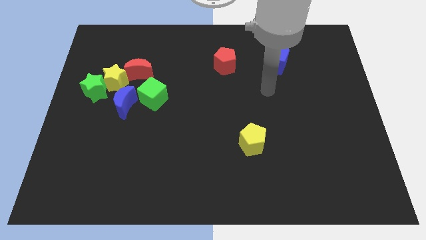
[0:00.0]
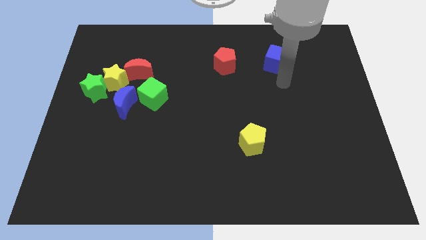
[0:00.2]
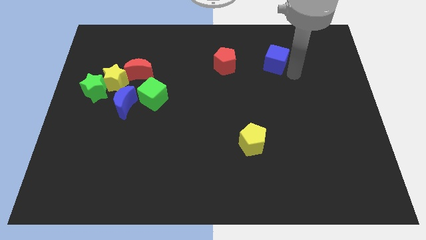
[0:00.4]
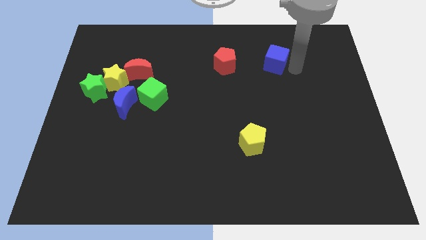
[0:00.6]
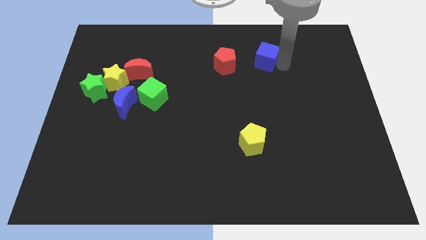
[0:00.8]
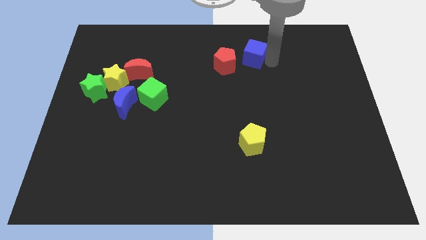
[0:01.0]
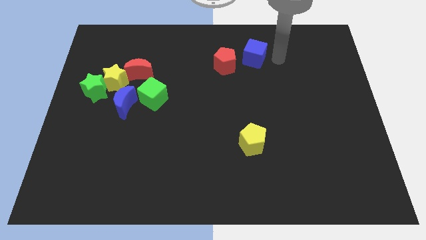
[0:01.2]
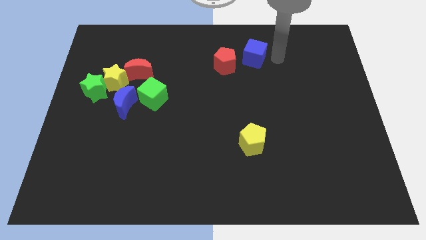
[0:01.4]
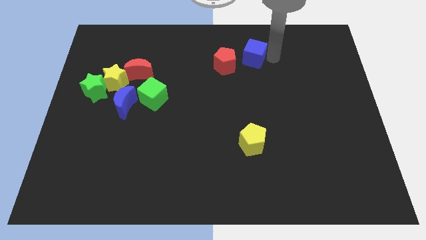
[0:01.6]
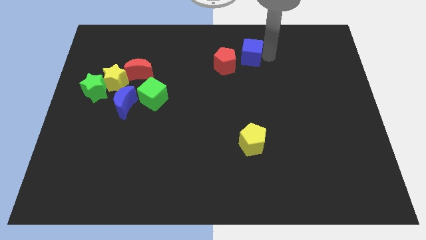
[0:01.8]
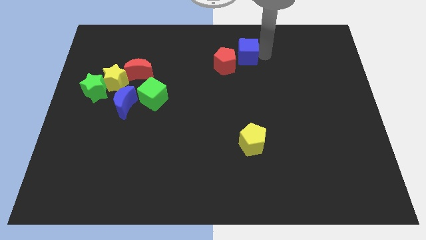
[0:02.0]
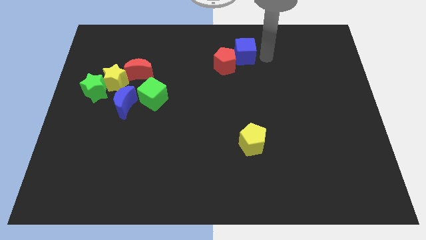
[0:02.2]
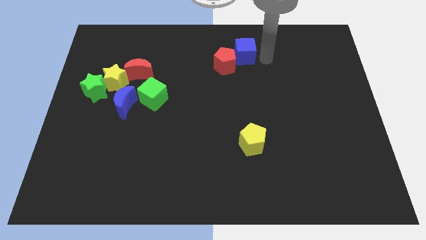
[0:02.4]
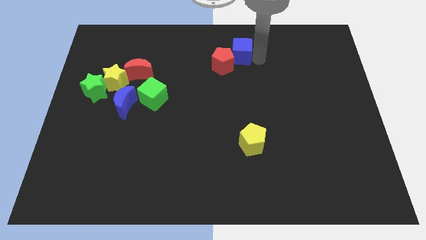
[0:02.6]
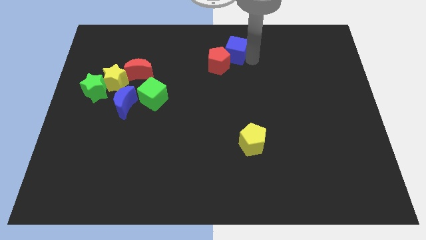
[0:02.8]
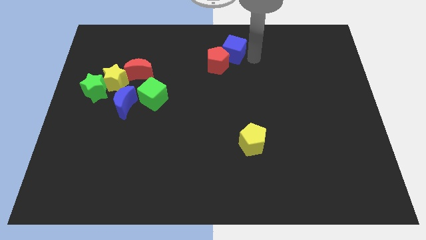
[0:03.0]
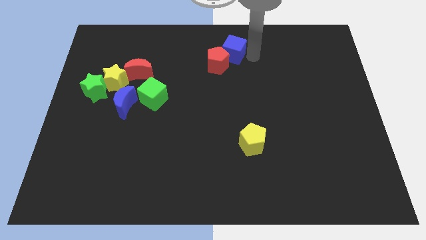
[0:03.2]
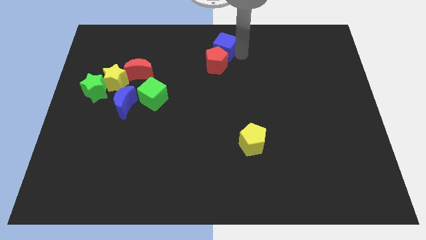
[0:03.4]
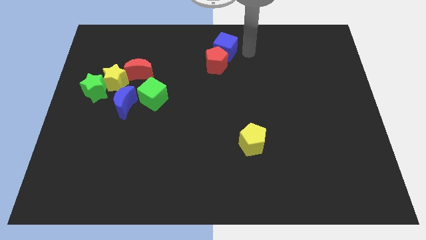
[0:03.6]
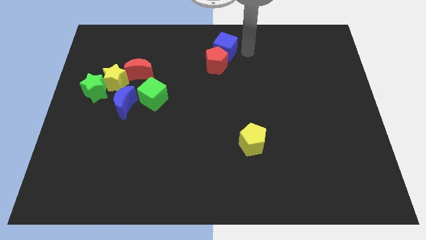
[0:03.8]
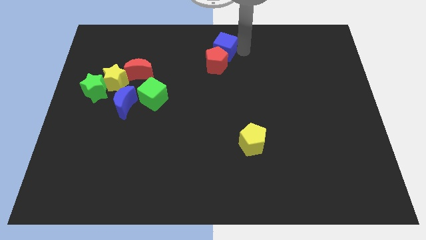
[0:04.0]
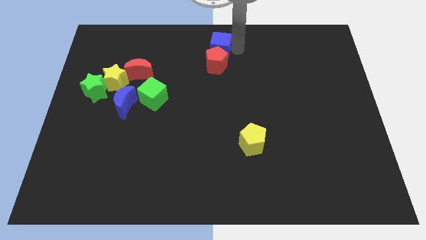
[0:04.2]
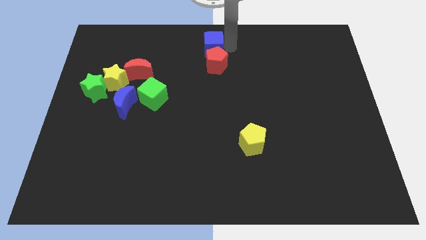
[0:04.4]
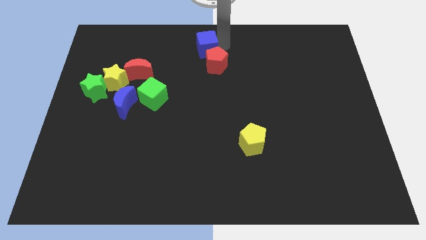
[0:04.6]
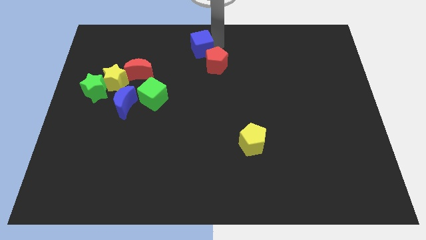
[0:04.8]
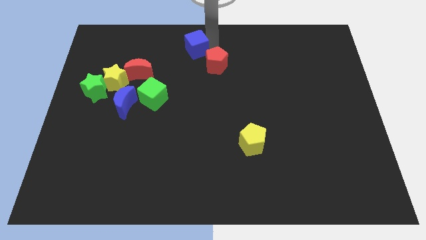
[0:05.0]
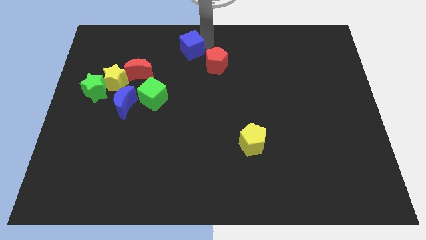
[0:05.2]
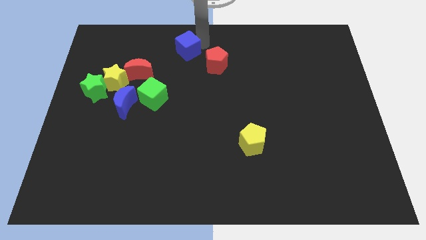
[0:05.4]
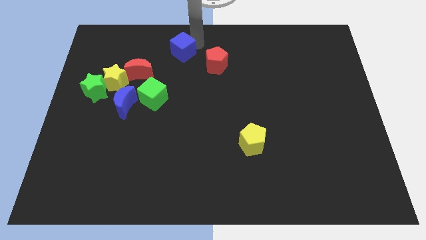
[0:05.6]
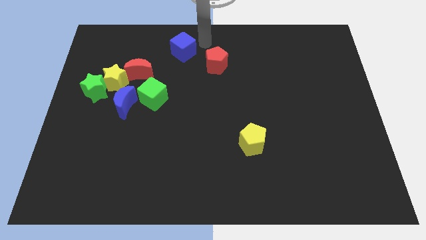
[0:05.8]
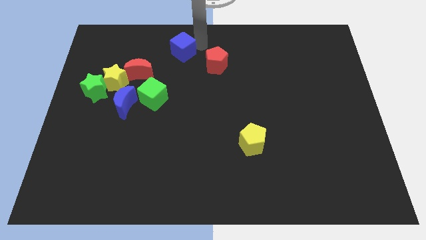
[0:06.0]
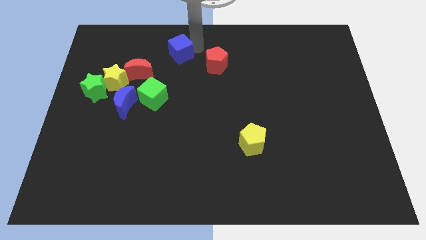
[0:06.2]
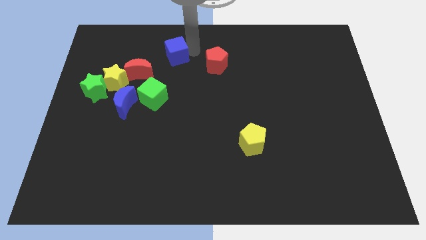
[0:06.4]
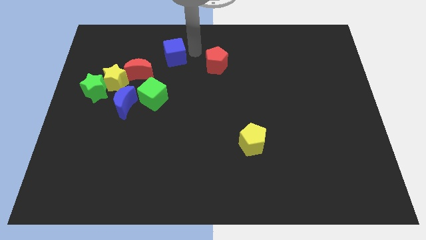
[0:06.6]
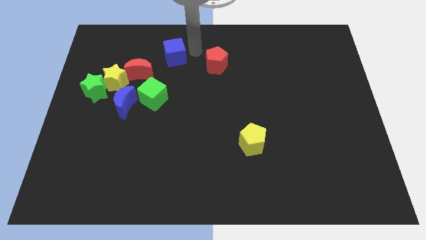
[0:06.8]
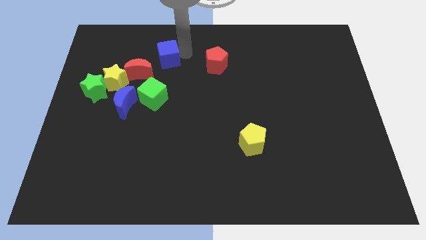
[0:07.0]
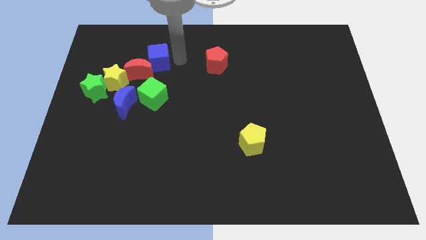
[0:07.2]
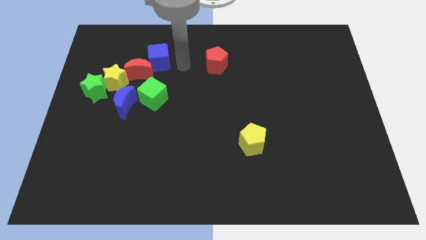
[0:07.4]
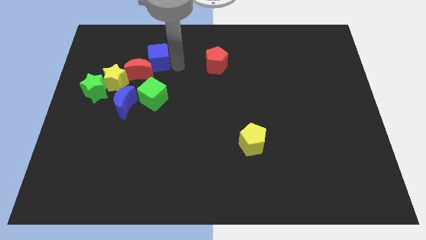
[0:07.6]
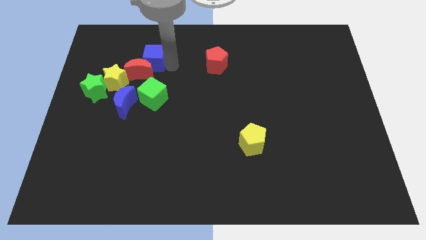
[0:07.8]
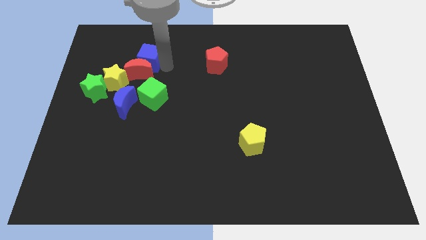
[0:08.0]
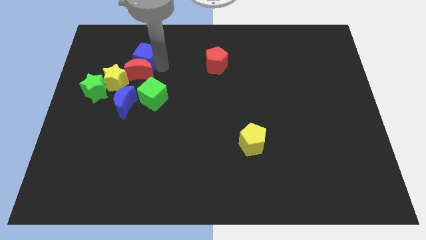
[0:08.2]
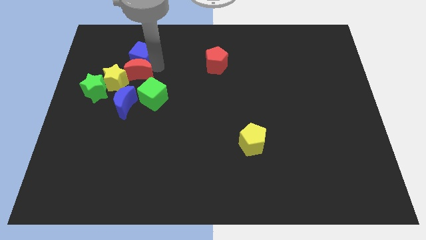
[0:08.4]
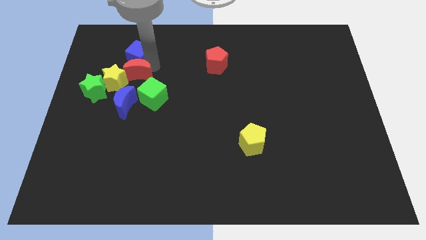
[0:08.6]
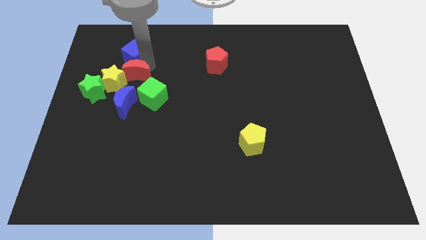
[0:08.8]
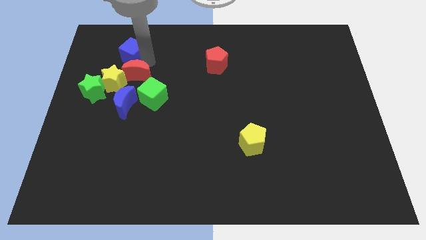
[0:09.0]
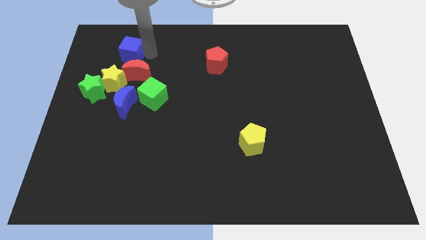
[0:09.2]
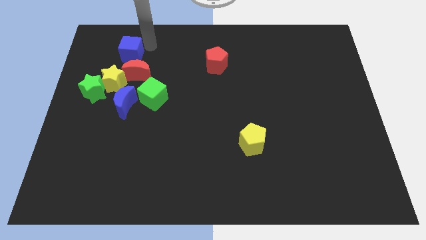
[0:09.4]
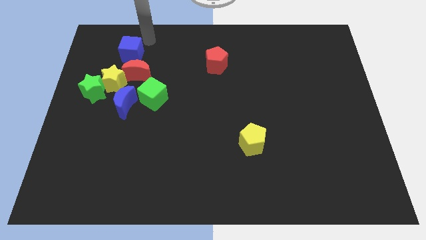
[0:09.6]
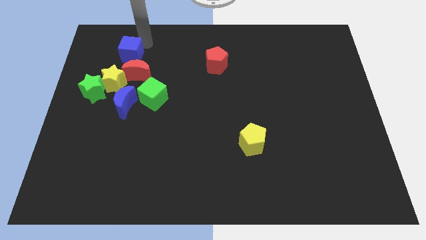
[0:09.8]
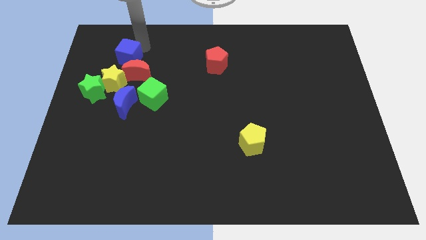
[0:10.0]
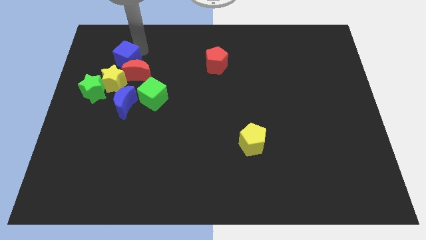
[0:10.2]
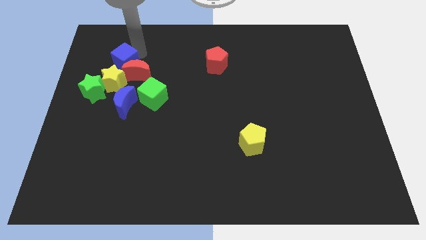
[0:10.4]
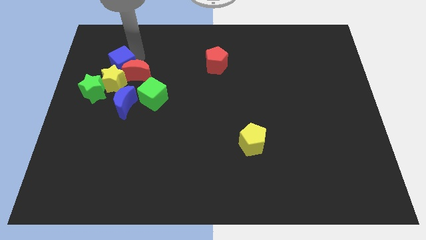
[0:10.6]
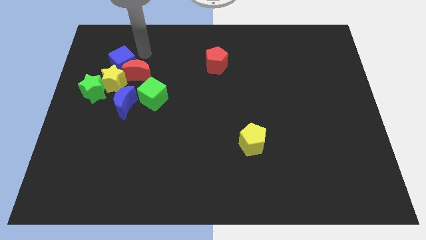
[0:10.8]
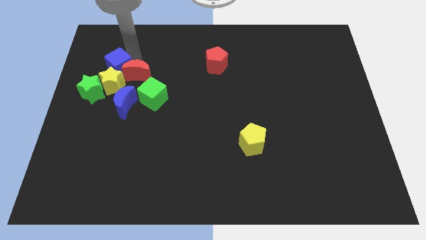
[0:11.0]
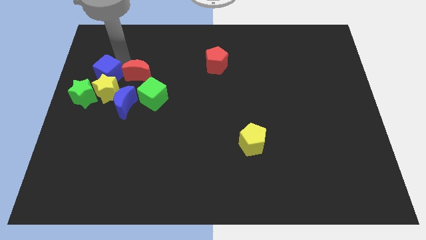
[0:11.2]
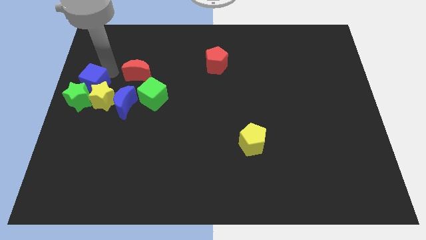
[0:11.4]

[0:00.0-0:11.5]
put the blue cube towards the green star

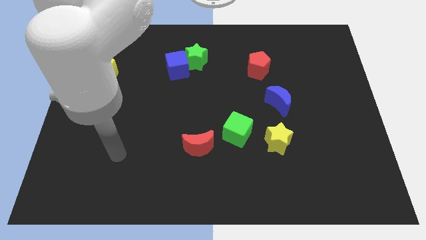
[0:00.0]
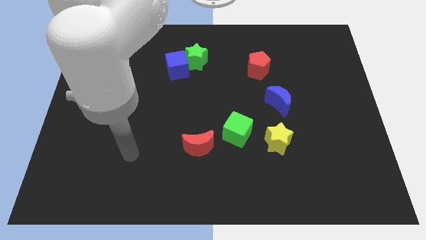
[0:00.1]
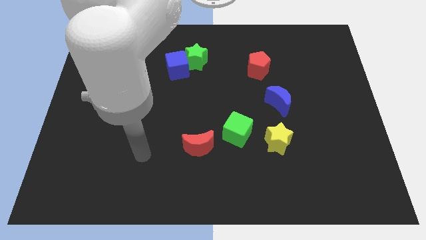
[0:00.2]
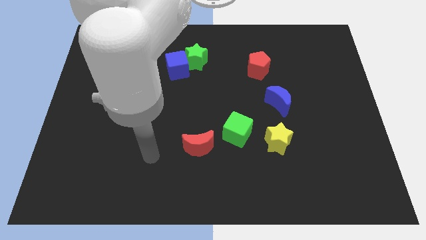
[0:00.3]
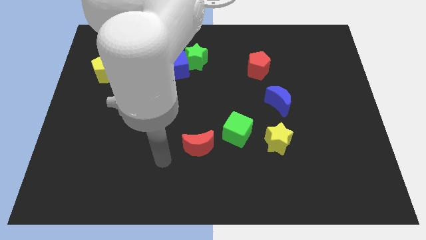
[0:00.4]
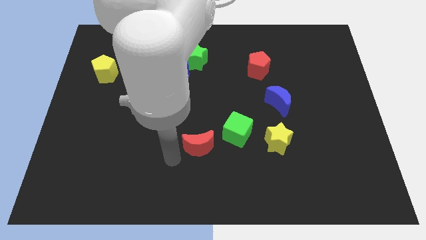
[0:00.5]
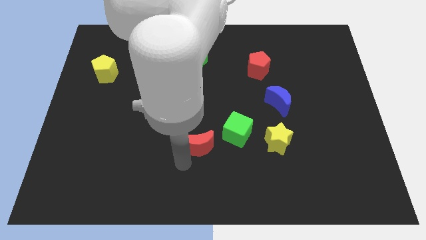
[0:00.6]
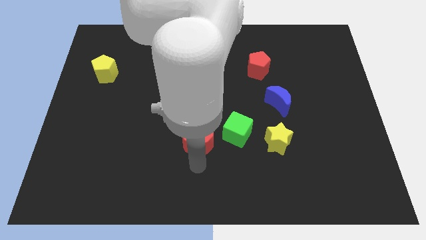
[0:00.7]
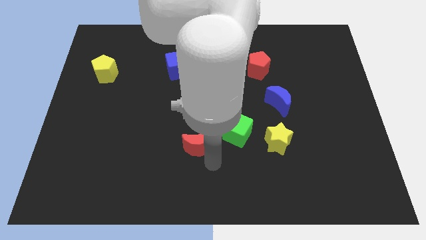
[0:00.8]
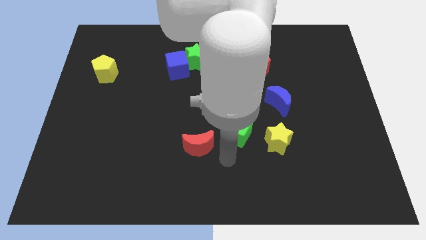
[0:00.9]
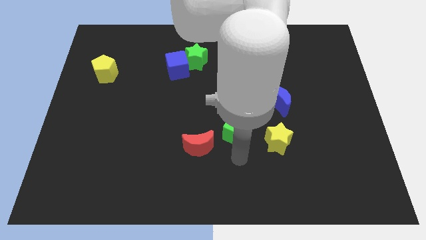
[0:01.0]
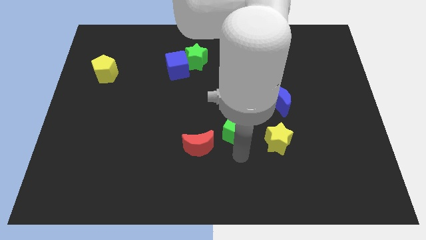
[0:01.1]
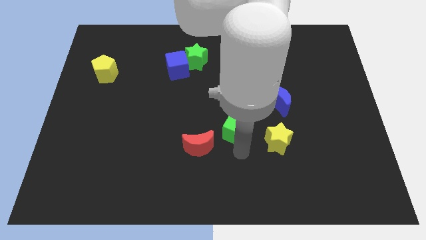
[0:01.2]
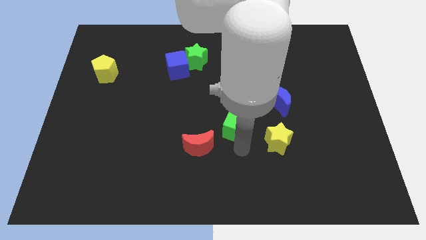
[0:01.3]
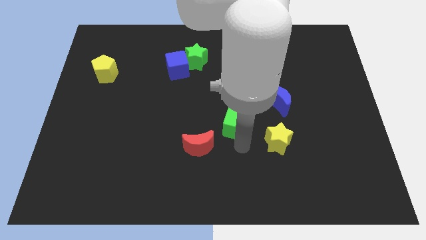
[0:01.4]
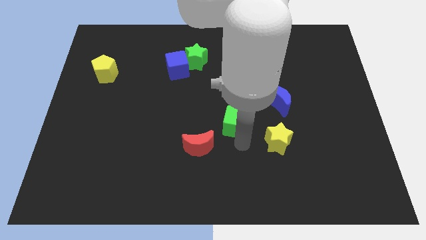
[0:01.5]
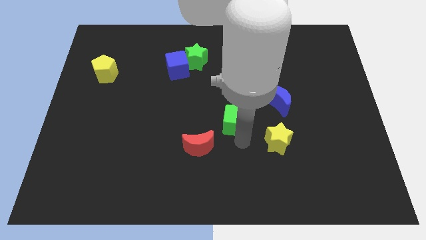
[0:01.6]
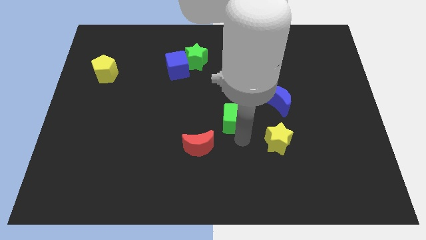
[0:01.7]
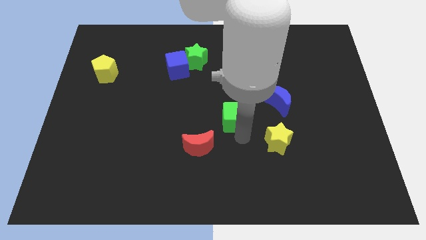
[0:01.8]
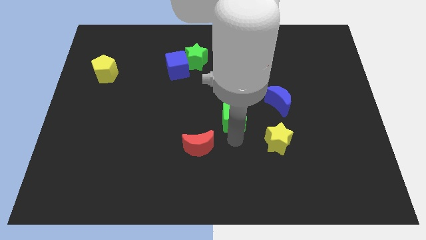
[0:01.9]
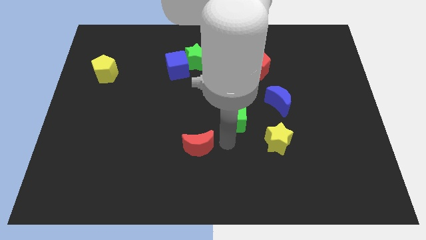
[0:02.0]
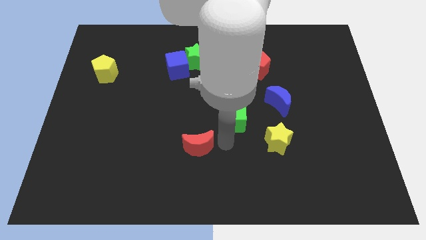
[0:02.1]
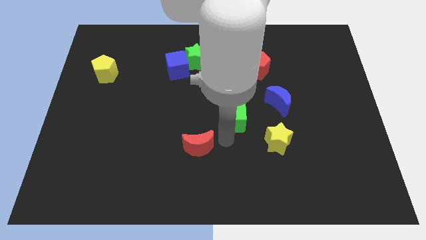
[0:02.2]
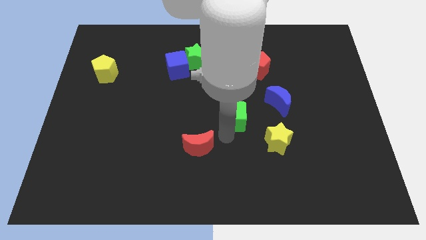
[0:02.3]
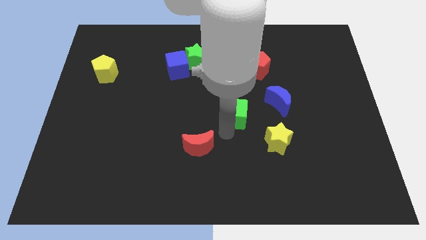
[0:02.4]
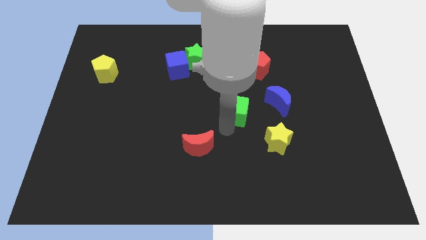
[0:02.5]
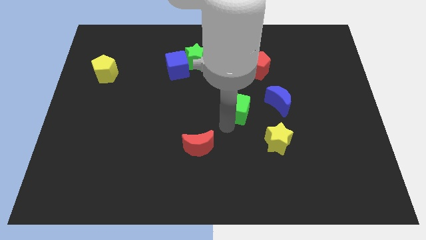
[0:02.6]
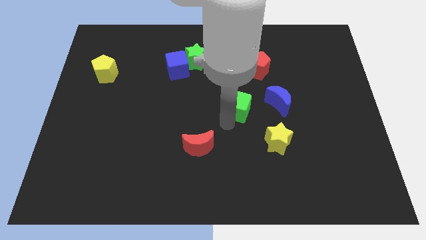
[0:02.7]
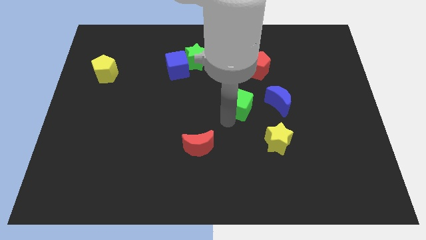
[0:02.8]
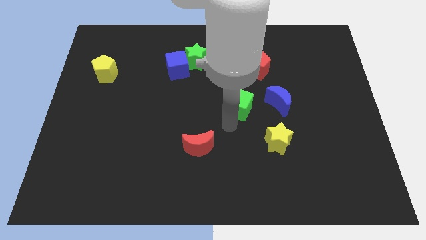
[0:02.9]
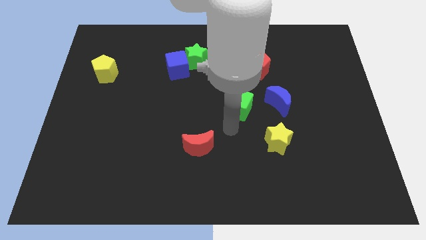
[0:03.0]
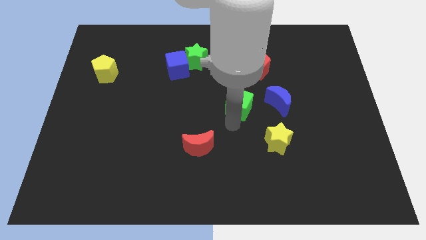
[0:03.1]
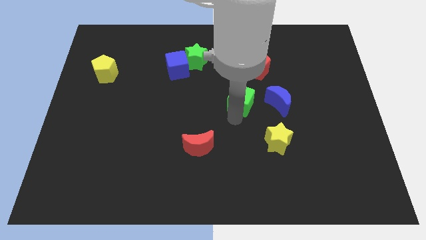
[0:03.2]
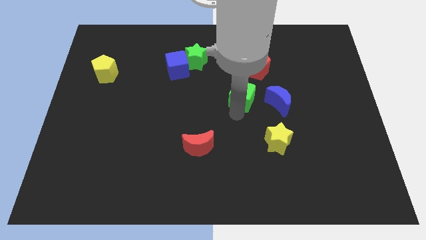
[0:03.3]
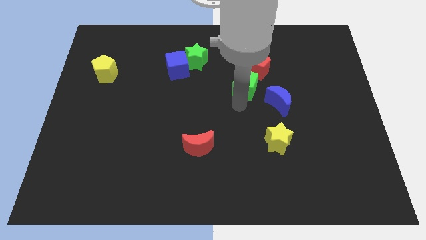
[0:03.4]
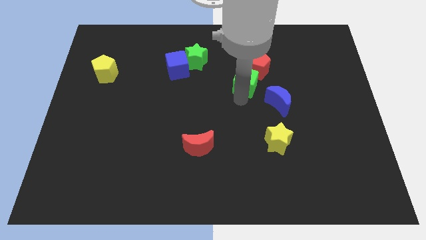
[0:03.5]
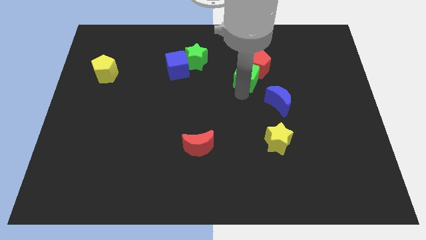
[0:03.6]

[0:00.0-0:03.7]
move the green cube to the red pentagon
